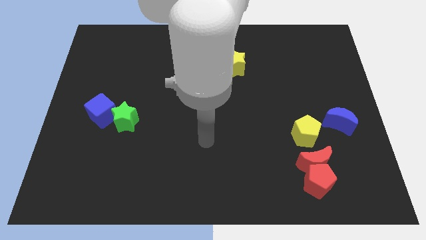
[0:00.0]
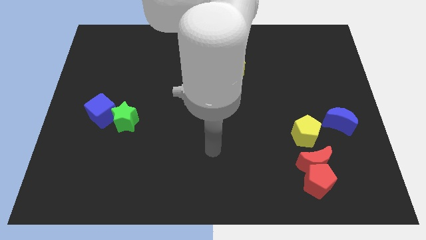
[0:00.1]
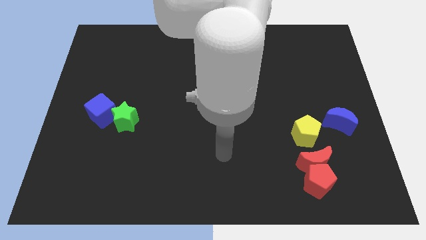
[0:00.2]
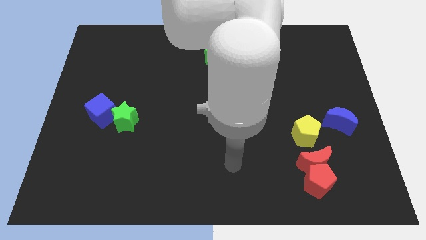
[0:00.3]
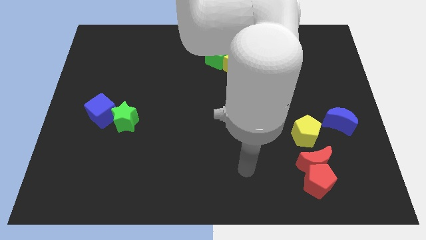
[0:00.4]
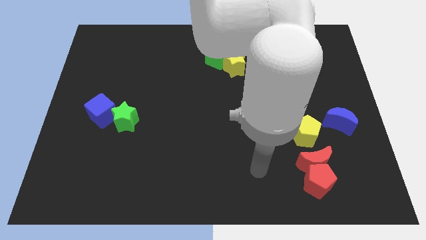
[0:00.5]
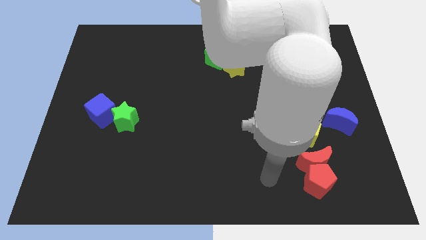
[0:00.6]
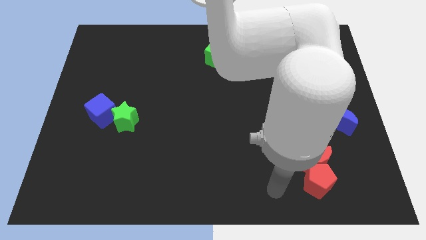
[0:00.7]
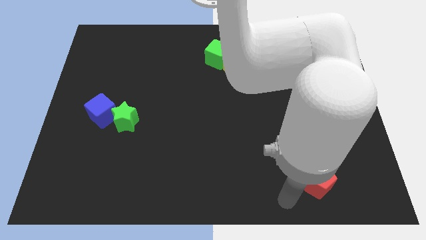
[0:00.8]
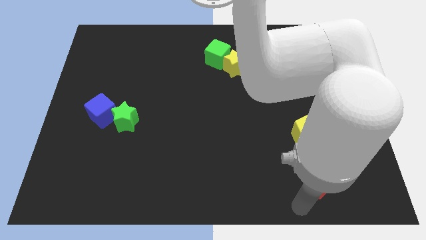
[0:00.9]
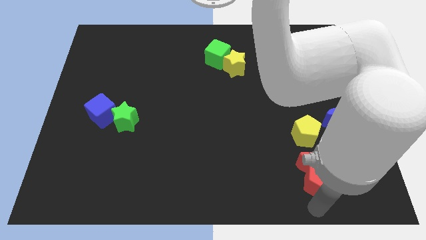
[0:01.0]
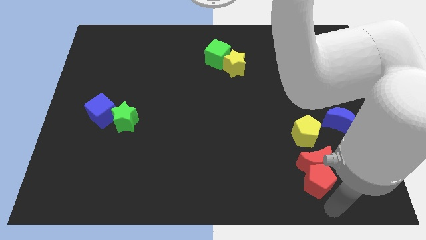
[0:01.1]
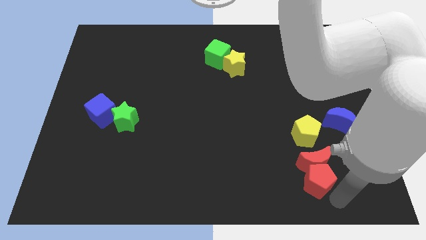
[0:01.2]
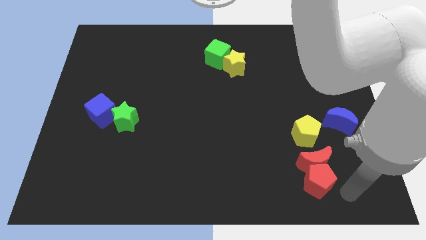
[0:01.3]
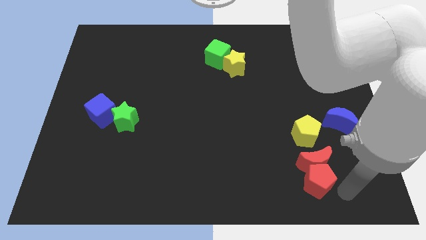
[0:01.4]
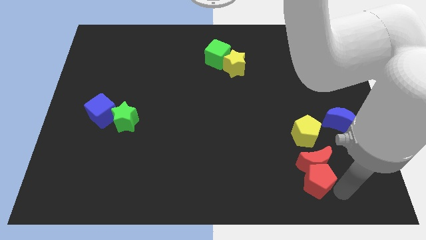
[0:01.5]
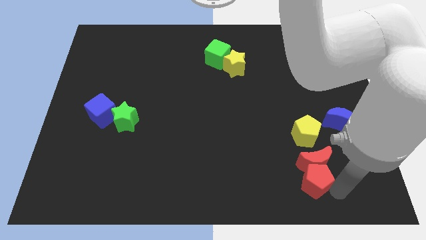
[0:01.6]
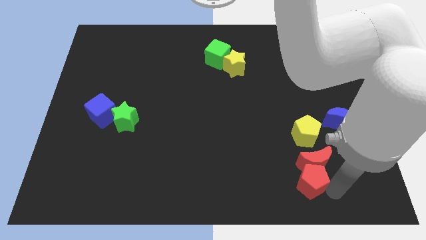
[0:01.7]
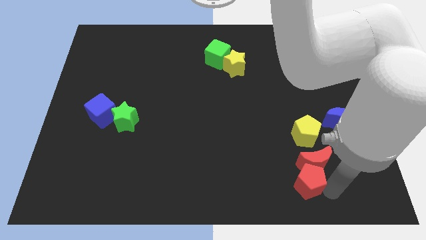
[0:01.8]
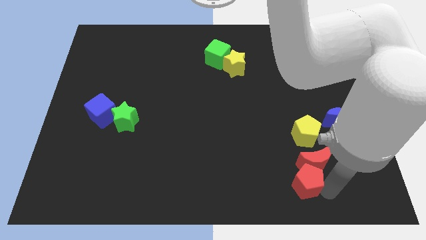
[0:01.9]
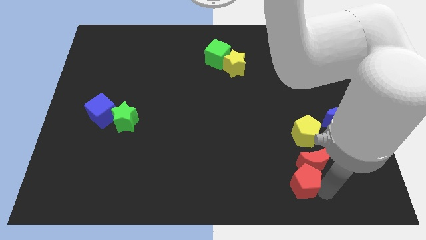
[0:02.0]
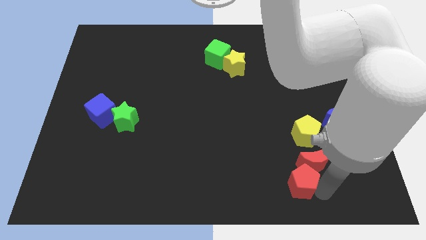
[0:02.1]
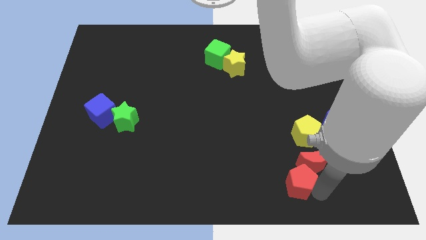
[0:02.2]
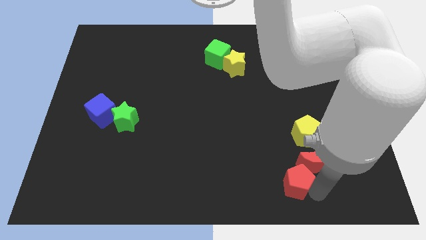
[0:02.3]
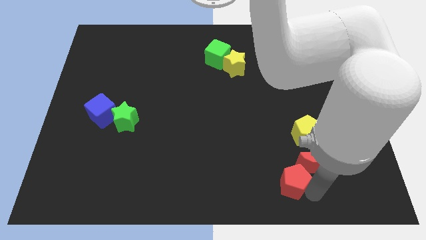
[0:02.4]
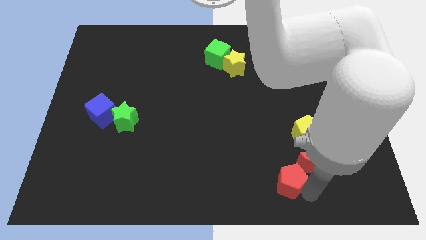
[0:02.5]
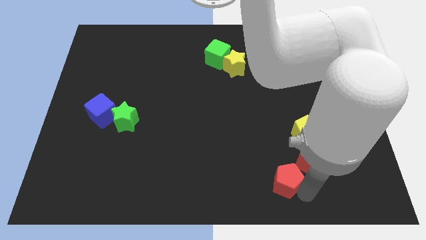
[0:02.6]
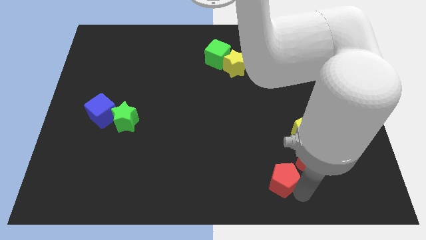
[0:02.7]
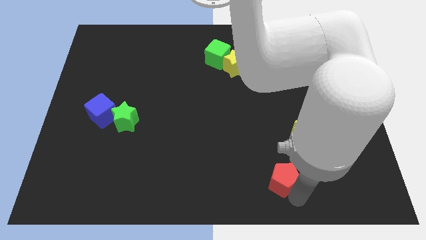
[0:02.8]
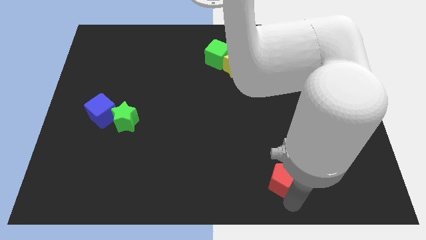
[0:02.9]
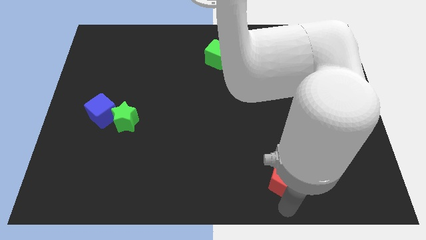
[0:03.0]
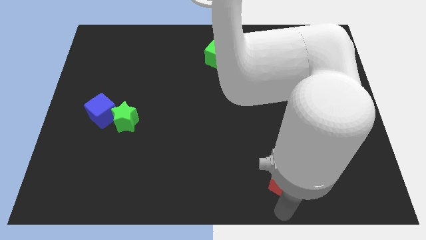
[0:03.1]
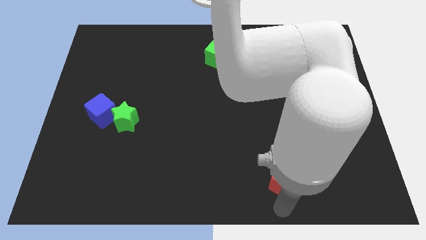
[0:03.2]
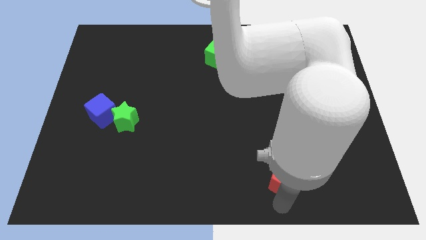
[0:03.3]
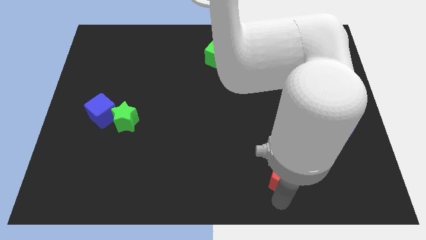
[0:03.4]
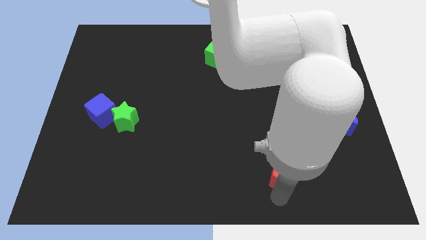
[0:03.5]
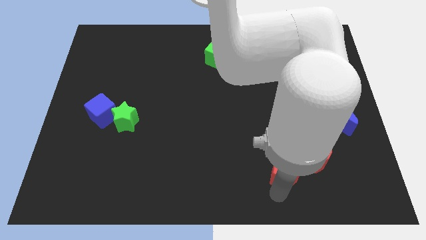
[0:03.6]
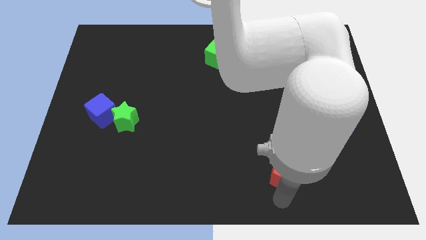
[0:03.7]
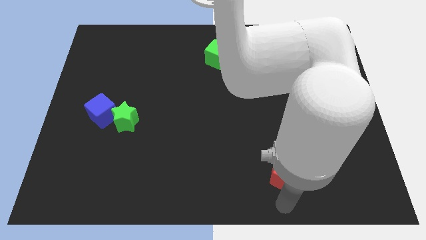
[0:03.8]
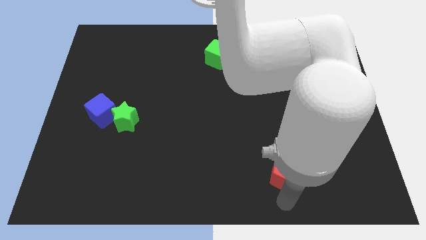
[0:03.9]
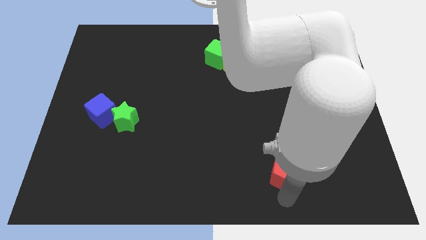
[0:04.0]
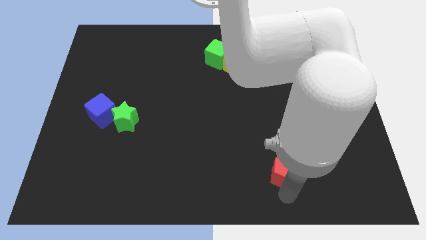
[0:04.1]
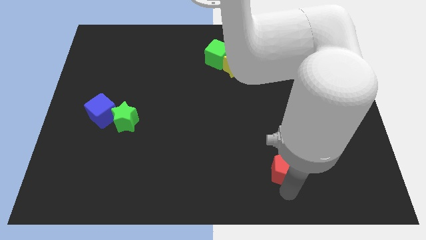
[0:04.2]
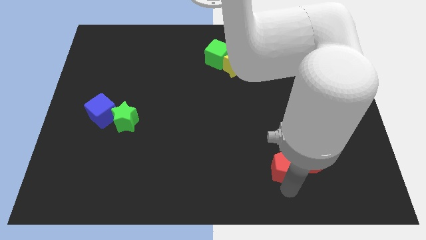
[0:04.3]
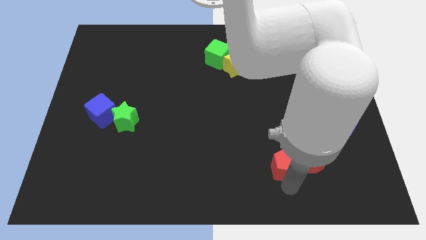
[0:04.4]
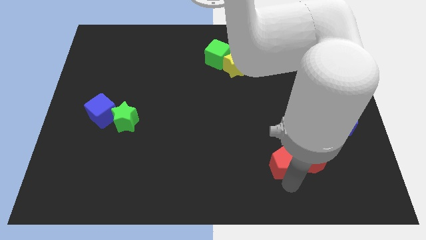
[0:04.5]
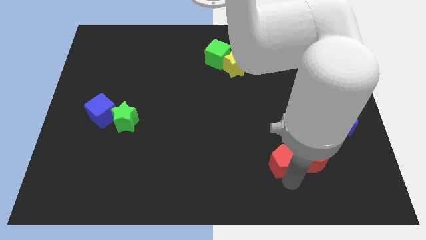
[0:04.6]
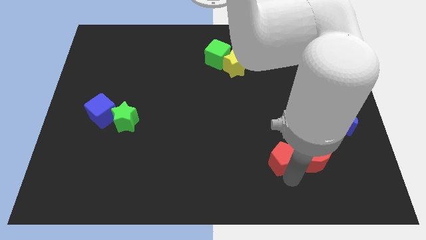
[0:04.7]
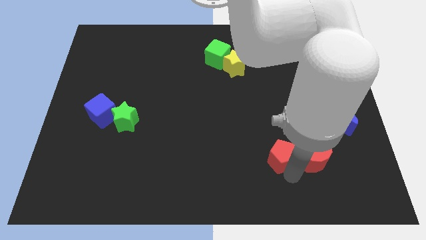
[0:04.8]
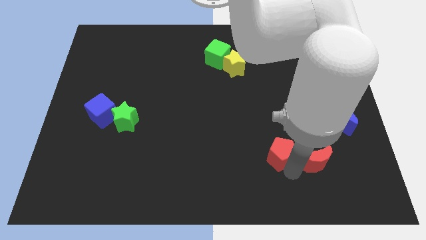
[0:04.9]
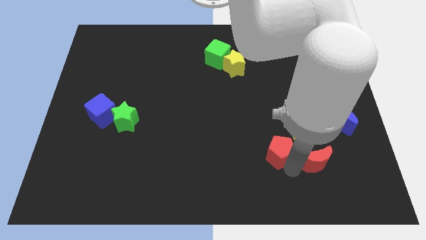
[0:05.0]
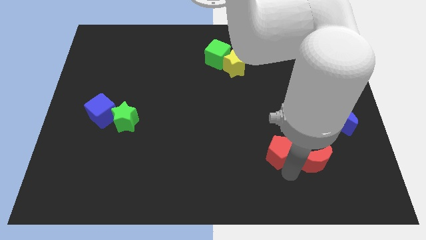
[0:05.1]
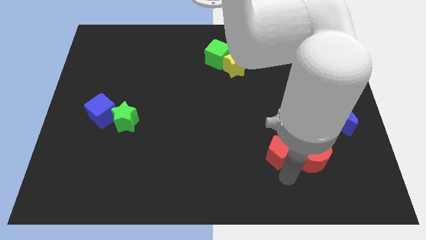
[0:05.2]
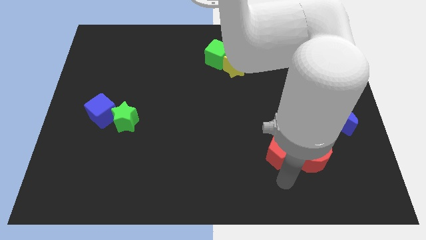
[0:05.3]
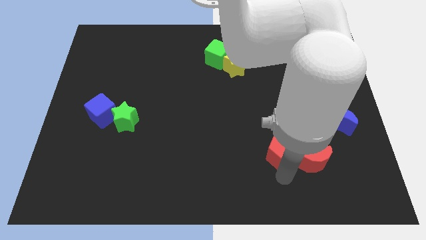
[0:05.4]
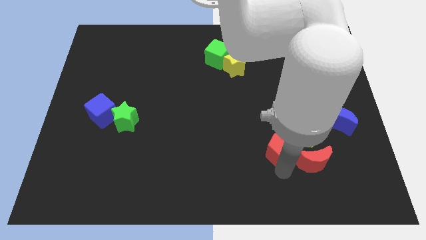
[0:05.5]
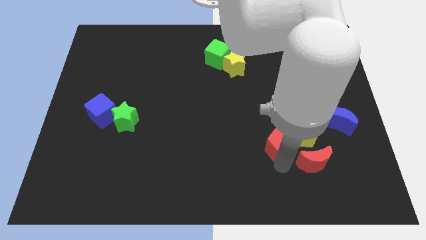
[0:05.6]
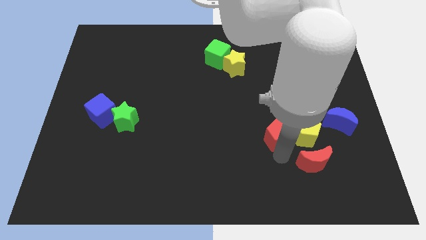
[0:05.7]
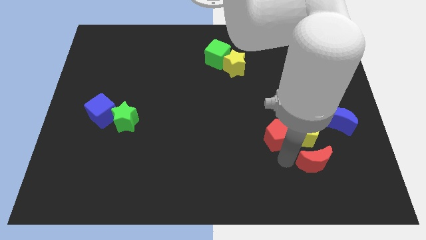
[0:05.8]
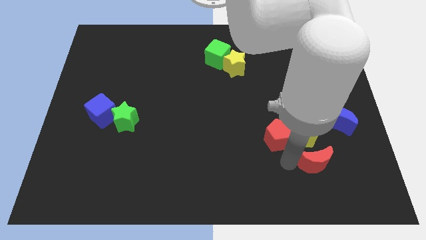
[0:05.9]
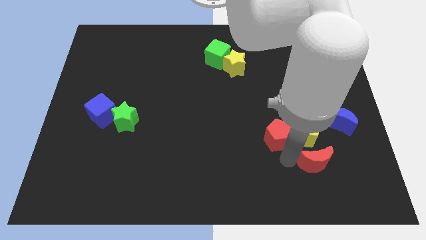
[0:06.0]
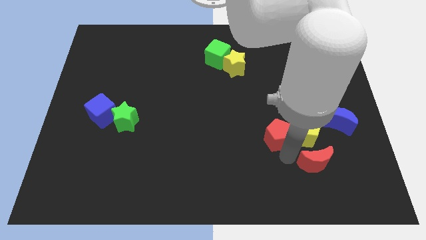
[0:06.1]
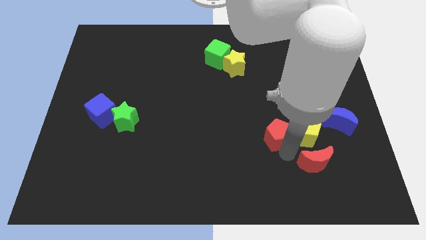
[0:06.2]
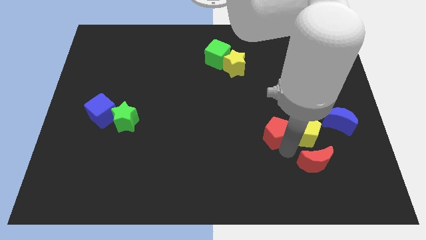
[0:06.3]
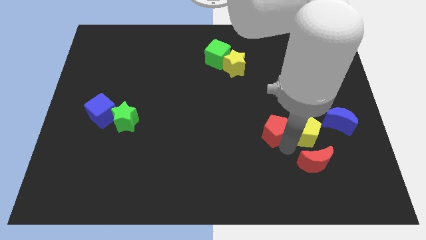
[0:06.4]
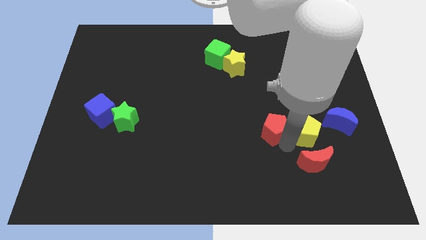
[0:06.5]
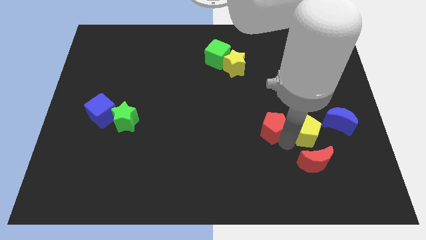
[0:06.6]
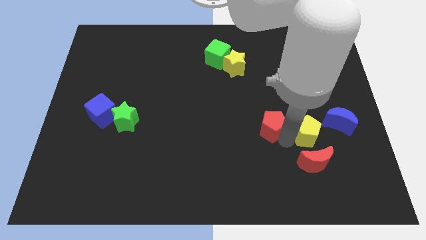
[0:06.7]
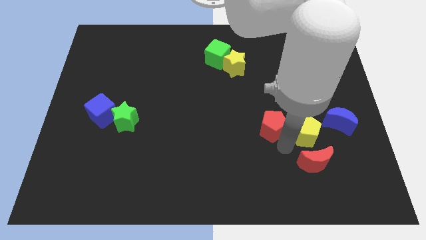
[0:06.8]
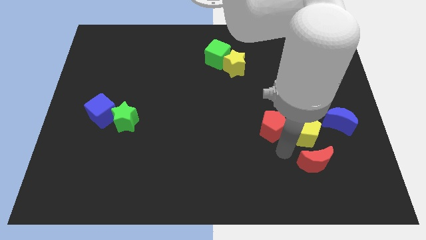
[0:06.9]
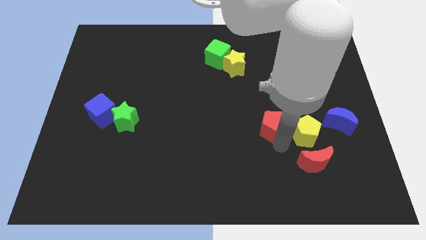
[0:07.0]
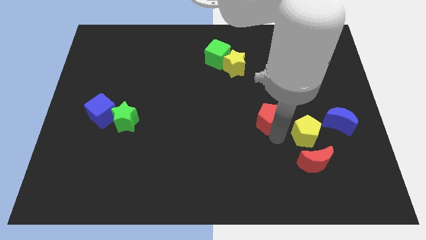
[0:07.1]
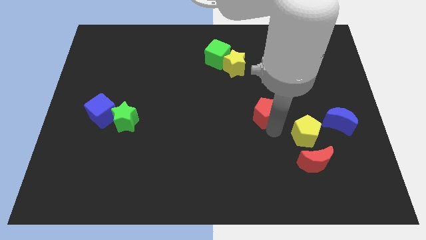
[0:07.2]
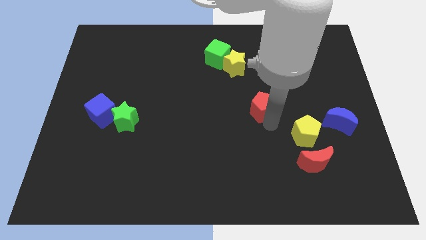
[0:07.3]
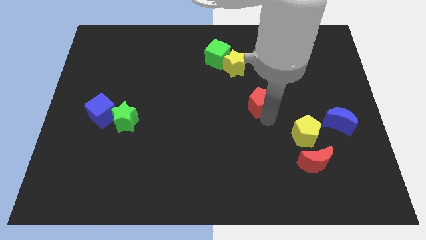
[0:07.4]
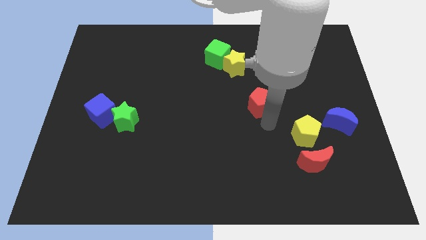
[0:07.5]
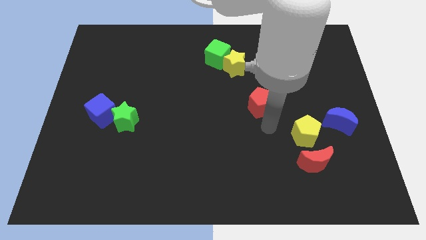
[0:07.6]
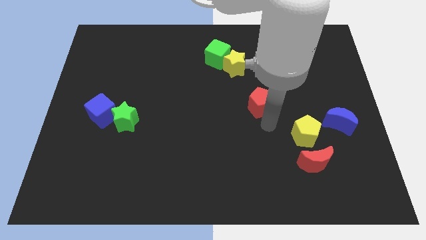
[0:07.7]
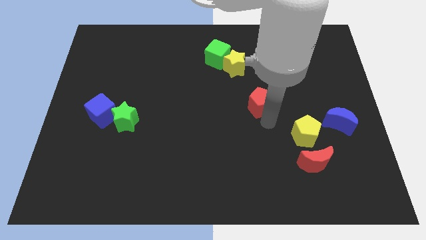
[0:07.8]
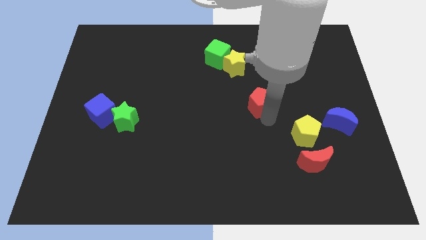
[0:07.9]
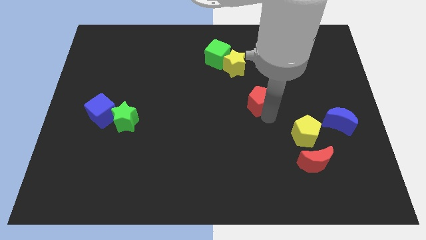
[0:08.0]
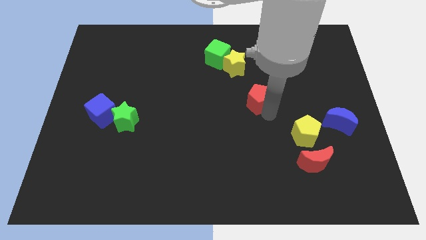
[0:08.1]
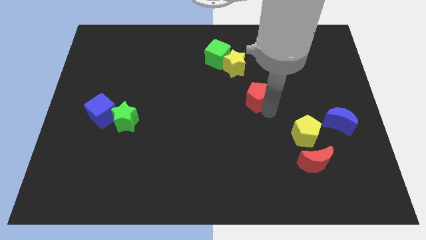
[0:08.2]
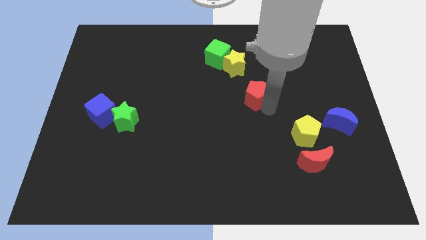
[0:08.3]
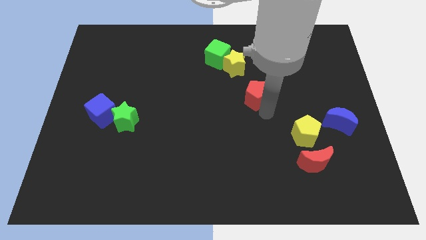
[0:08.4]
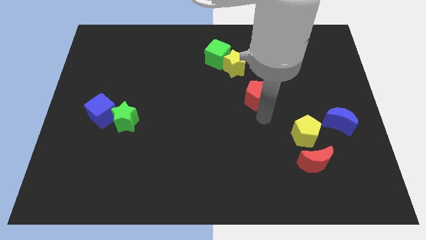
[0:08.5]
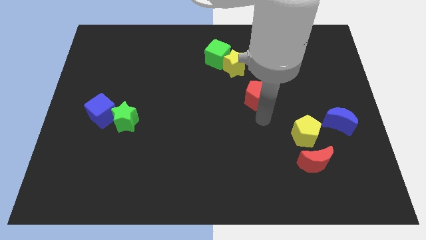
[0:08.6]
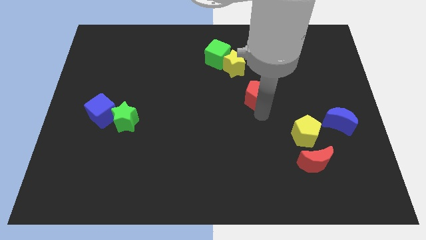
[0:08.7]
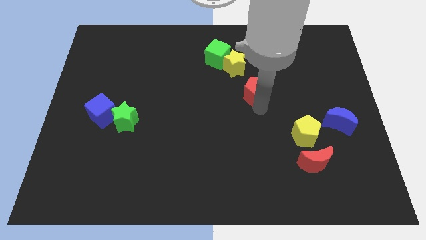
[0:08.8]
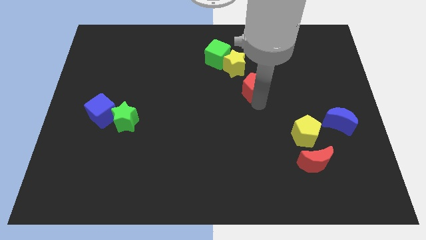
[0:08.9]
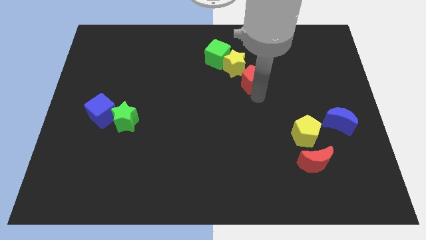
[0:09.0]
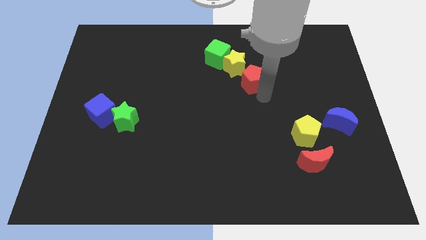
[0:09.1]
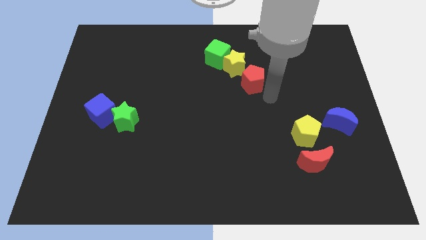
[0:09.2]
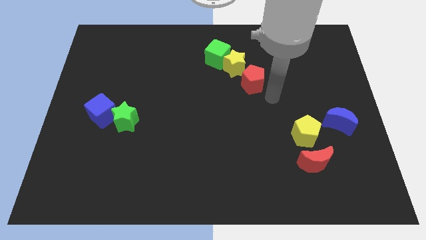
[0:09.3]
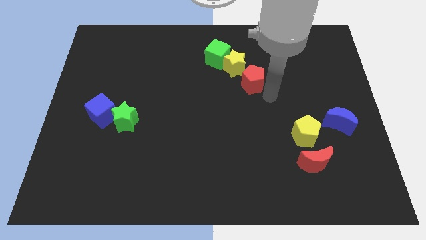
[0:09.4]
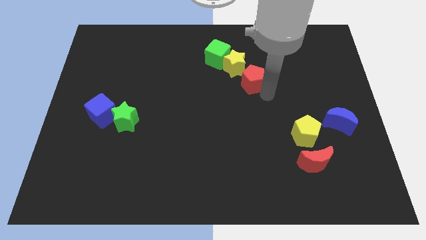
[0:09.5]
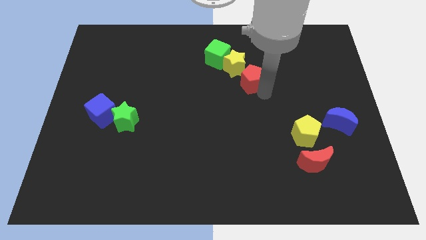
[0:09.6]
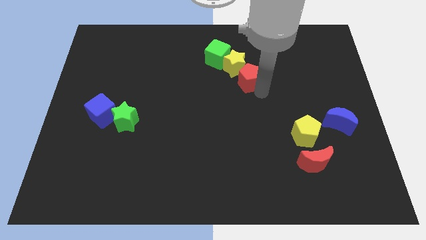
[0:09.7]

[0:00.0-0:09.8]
push the red pentagon towards the yellow star
